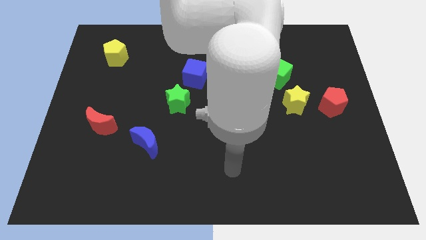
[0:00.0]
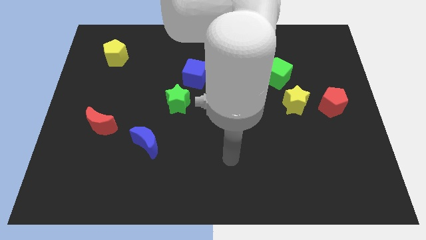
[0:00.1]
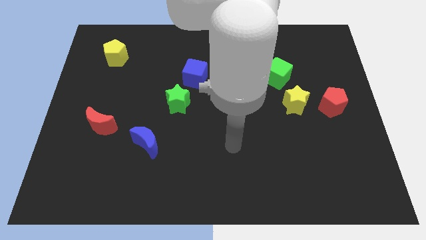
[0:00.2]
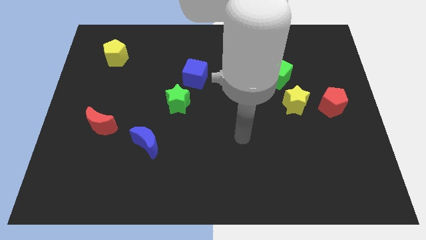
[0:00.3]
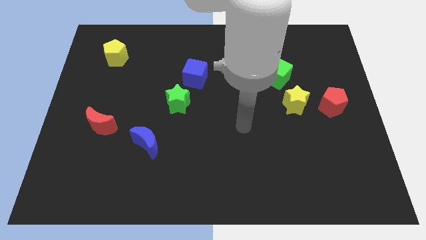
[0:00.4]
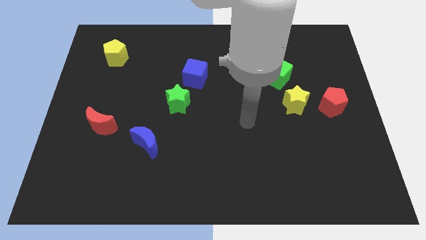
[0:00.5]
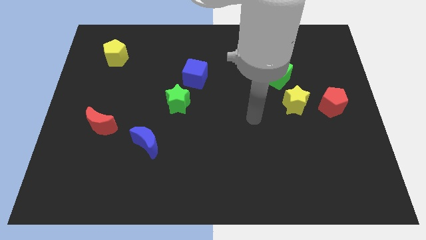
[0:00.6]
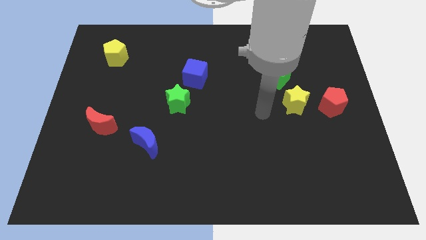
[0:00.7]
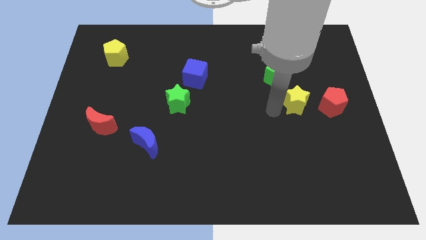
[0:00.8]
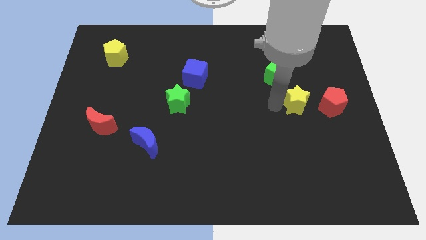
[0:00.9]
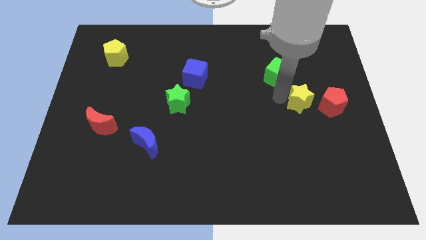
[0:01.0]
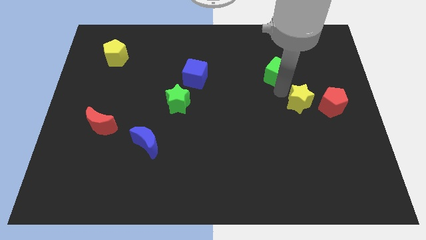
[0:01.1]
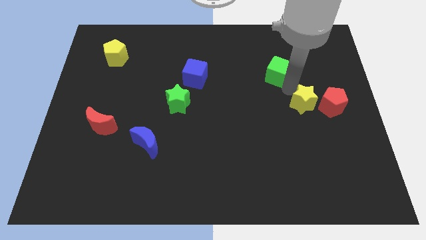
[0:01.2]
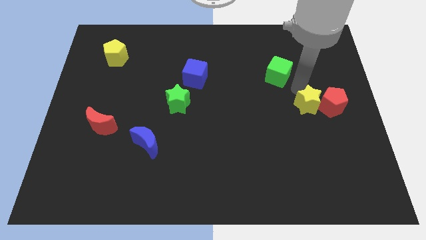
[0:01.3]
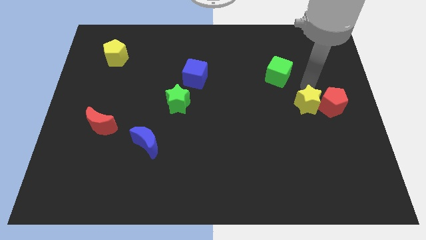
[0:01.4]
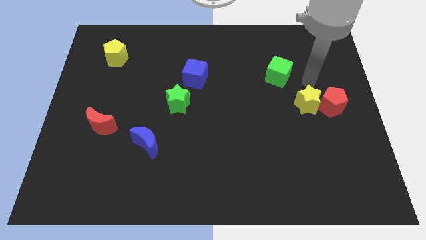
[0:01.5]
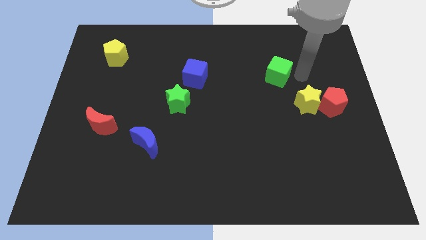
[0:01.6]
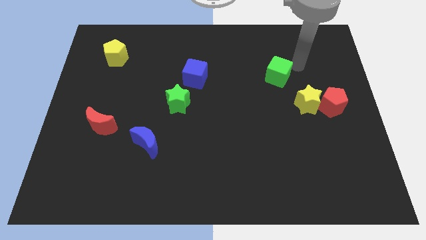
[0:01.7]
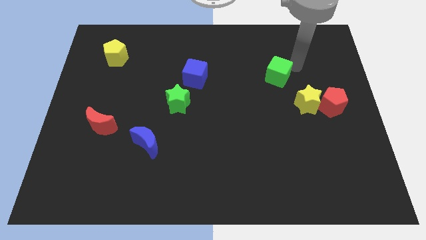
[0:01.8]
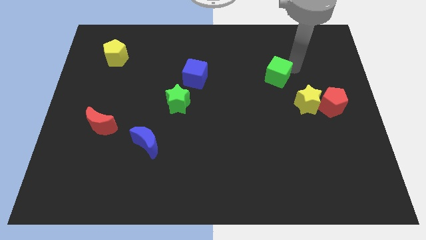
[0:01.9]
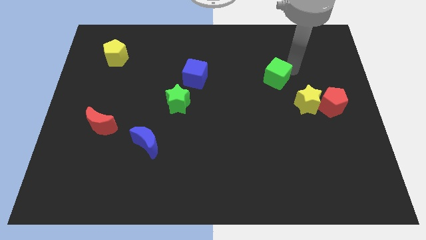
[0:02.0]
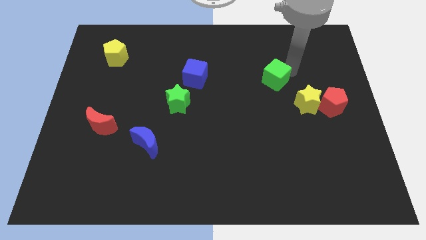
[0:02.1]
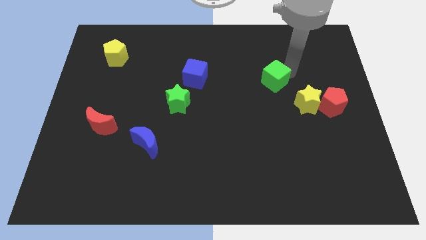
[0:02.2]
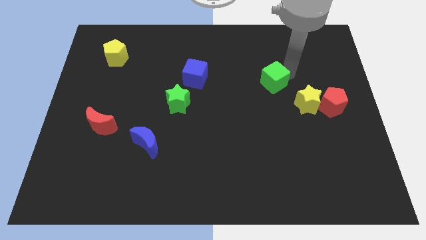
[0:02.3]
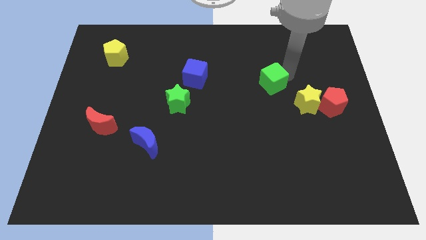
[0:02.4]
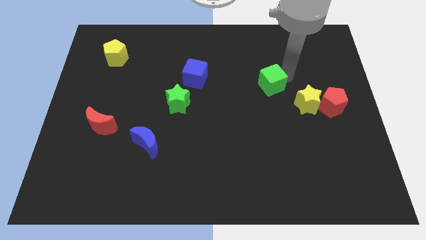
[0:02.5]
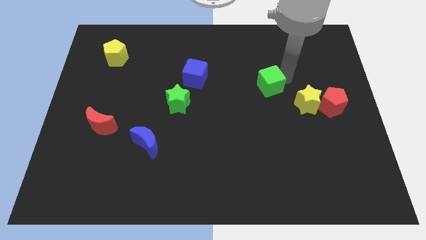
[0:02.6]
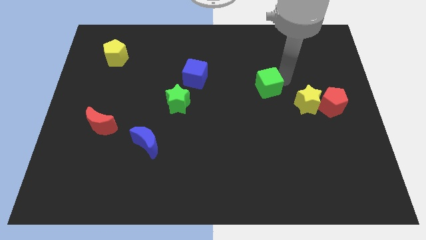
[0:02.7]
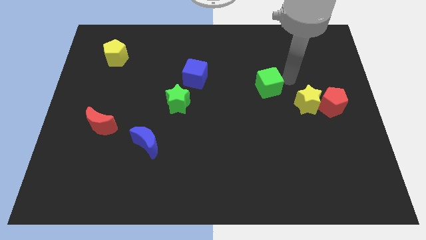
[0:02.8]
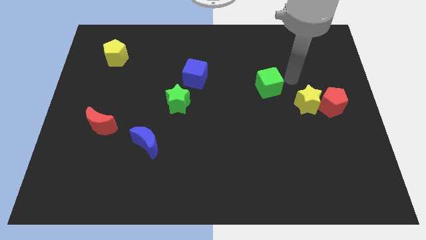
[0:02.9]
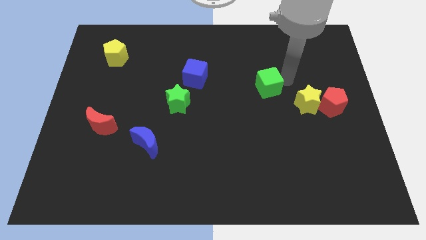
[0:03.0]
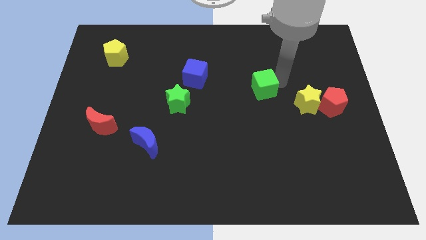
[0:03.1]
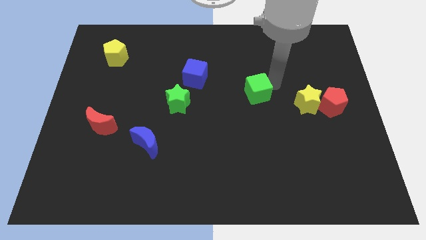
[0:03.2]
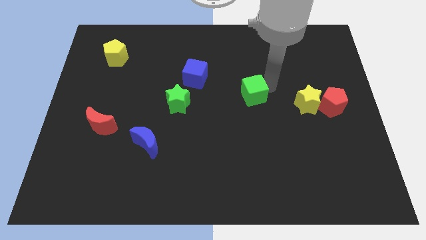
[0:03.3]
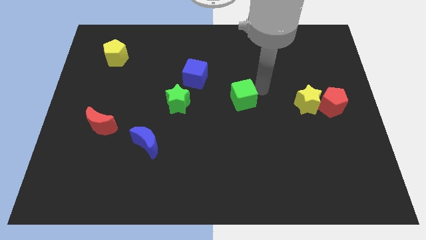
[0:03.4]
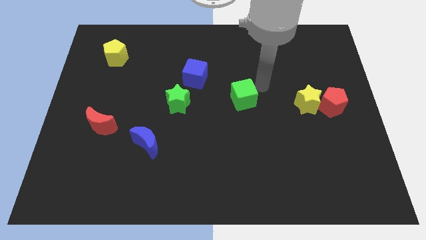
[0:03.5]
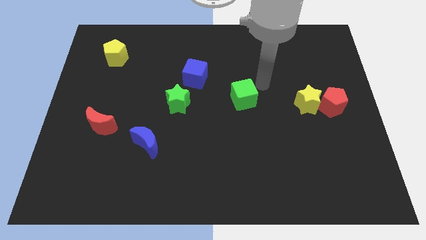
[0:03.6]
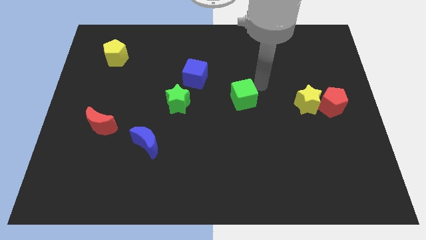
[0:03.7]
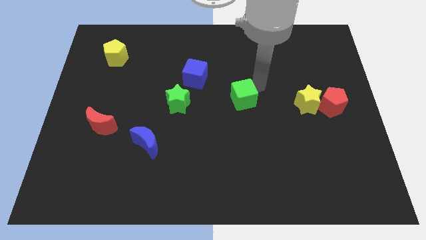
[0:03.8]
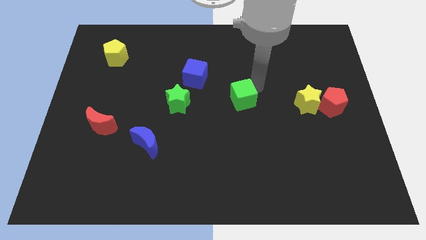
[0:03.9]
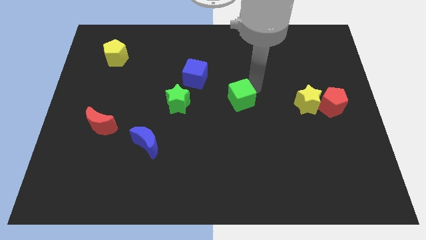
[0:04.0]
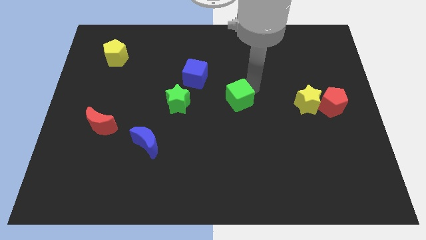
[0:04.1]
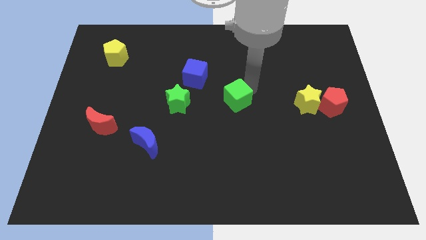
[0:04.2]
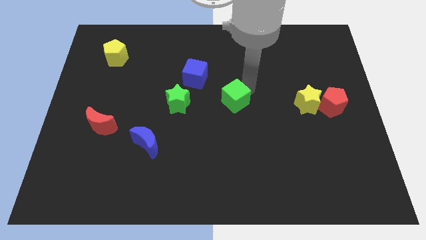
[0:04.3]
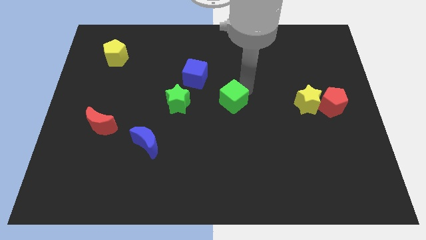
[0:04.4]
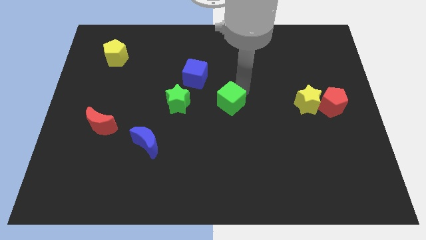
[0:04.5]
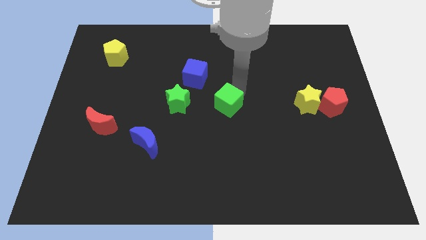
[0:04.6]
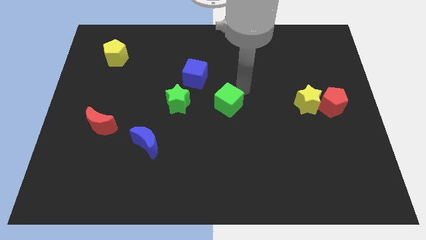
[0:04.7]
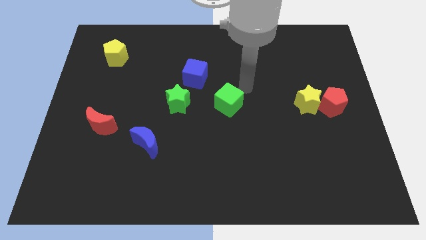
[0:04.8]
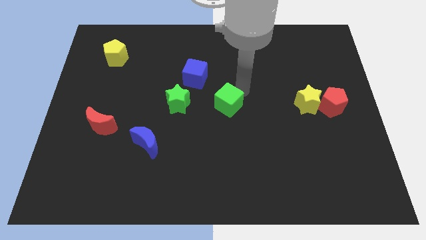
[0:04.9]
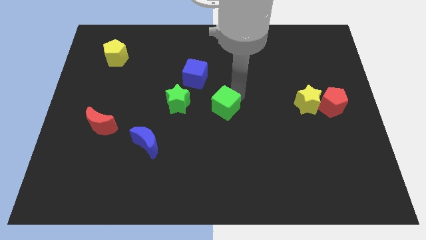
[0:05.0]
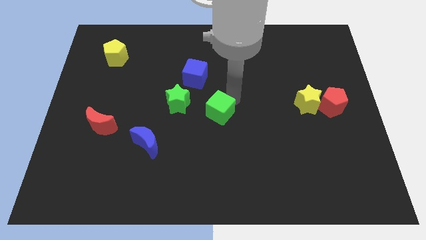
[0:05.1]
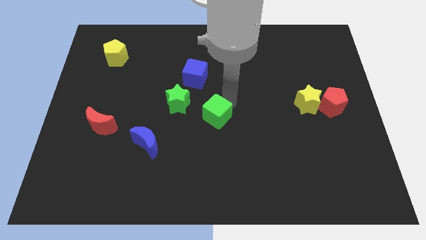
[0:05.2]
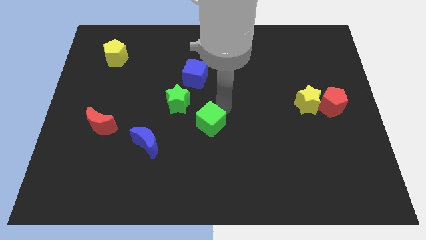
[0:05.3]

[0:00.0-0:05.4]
push the green cube downwards and left diagonally

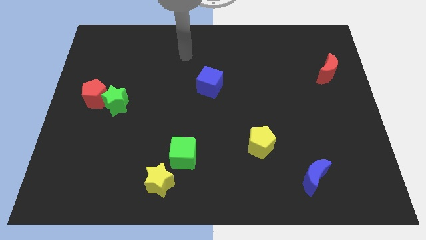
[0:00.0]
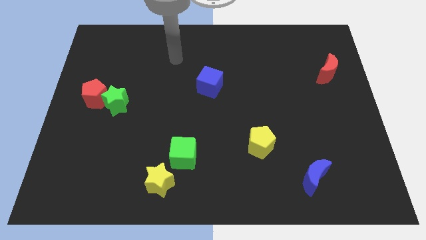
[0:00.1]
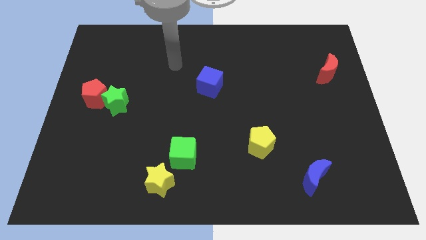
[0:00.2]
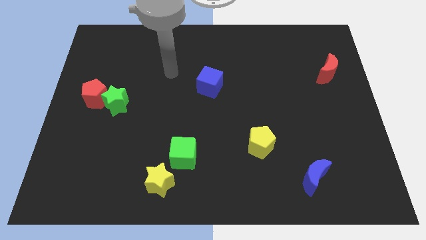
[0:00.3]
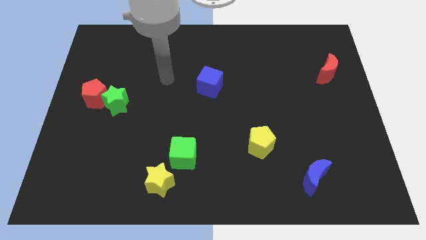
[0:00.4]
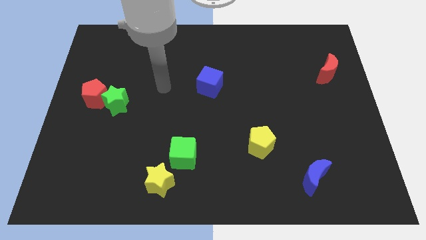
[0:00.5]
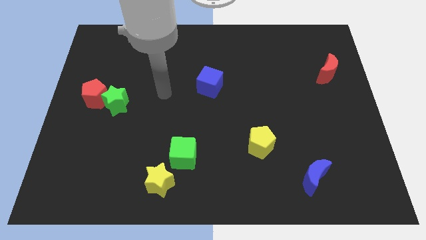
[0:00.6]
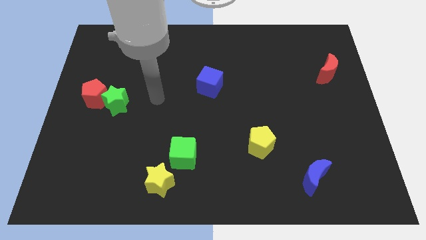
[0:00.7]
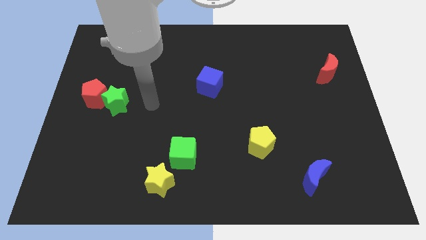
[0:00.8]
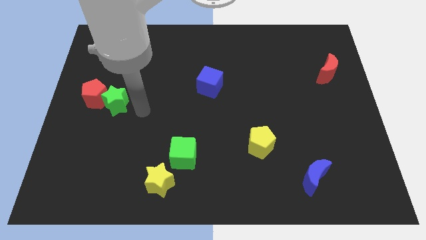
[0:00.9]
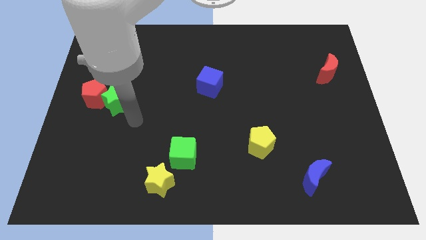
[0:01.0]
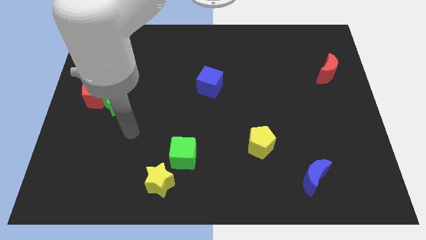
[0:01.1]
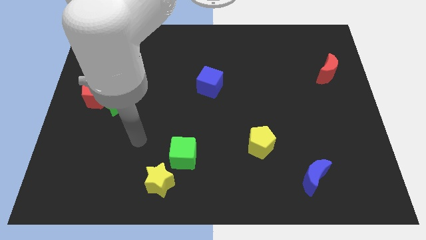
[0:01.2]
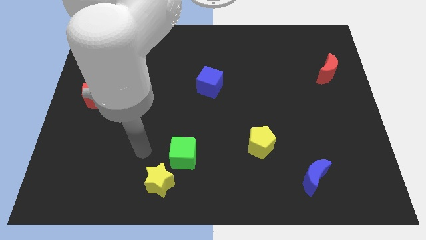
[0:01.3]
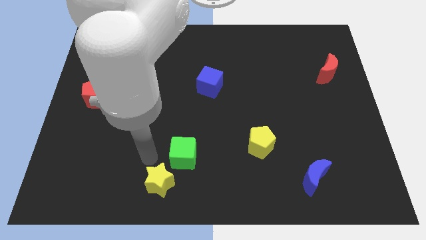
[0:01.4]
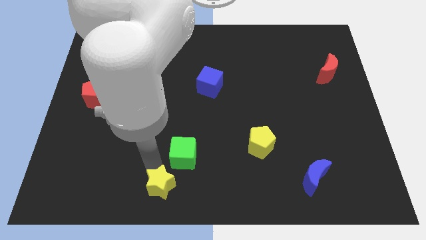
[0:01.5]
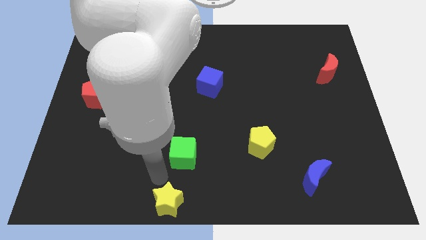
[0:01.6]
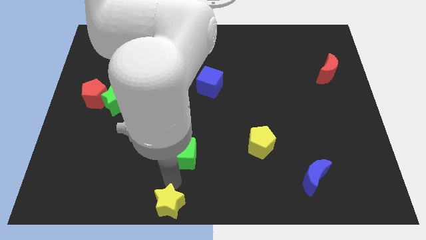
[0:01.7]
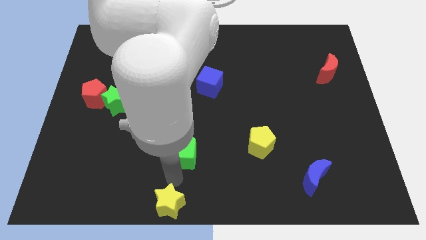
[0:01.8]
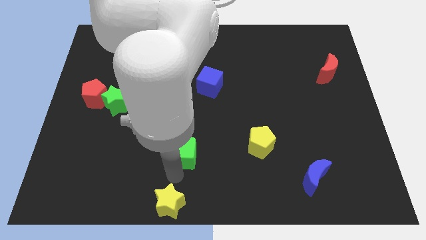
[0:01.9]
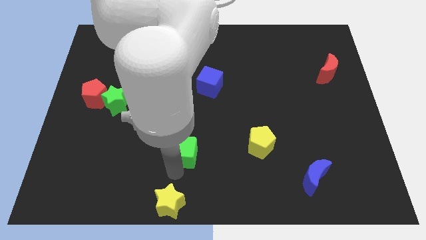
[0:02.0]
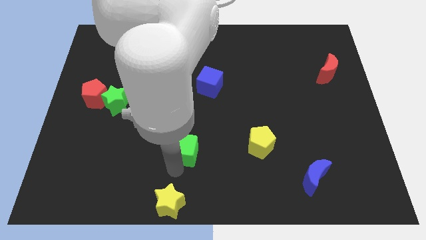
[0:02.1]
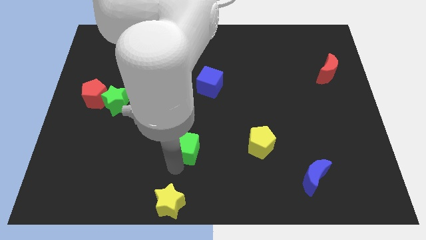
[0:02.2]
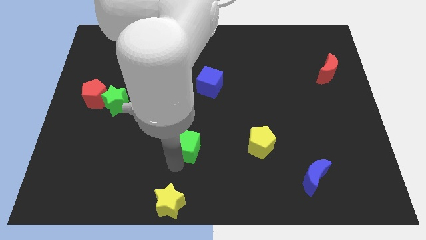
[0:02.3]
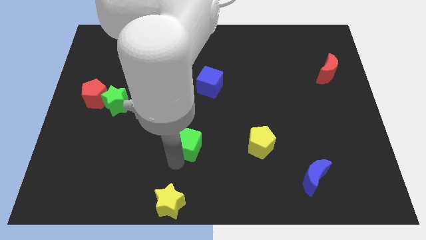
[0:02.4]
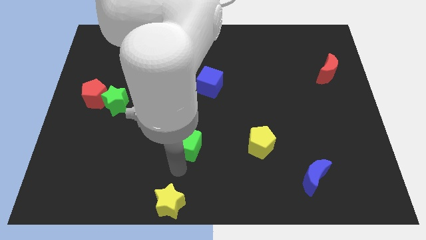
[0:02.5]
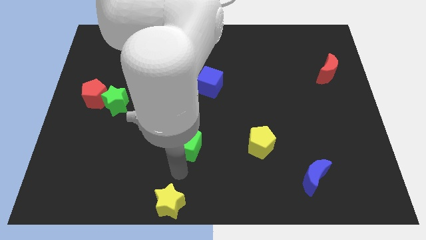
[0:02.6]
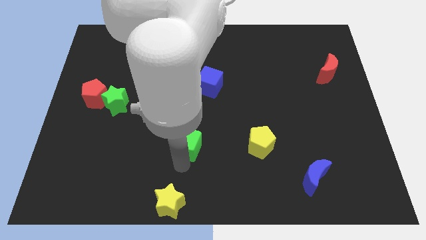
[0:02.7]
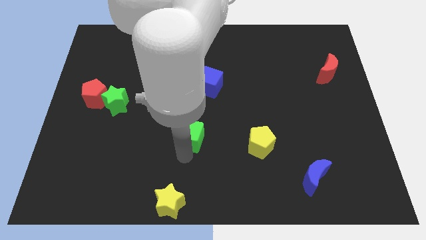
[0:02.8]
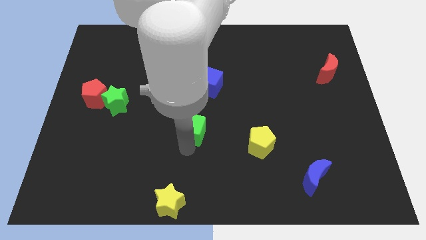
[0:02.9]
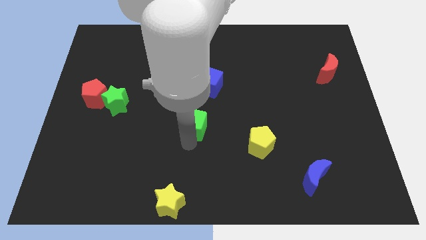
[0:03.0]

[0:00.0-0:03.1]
push the green cube upwards a little bit
